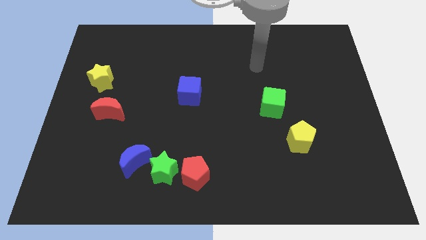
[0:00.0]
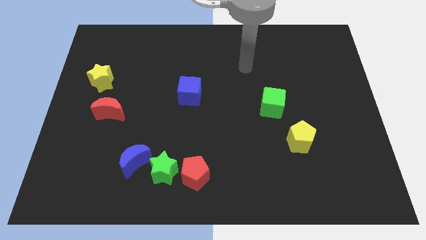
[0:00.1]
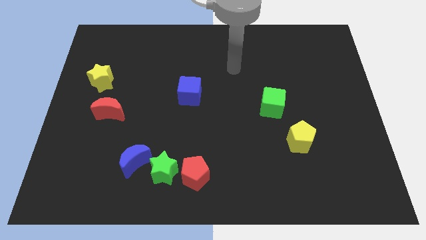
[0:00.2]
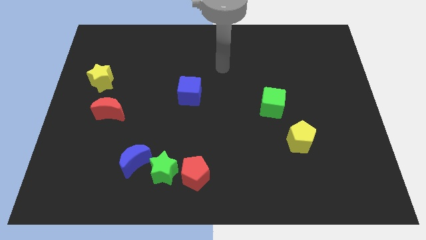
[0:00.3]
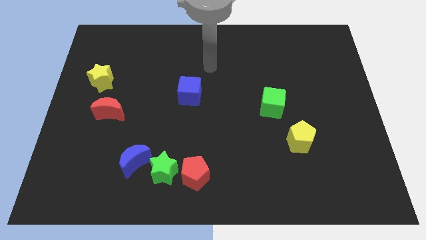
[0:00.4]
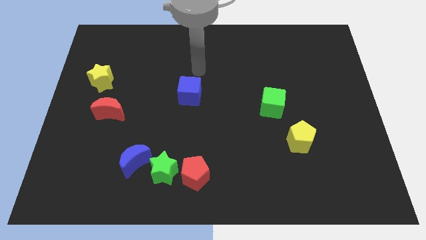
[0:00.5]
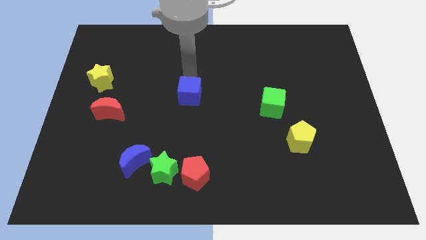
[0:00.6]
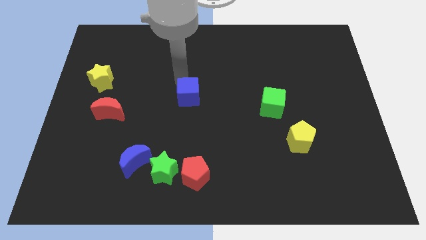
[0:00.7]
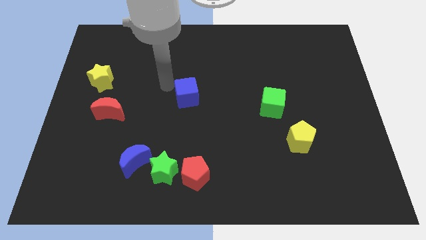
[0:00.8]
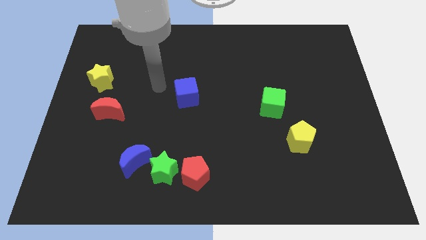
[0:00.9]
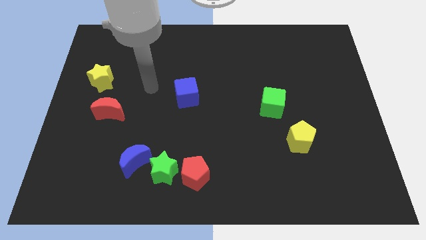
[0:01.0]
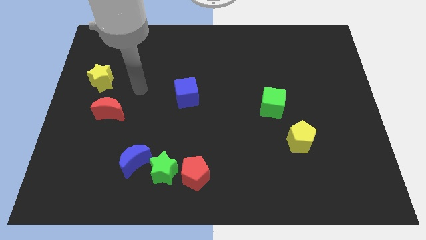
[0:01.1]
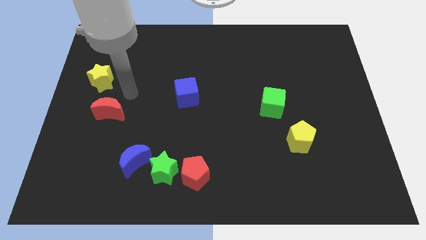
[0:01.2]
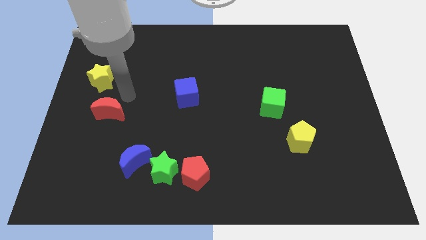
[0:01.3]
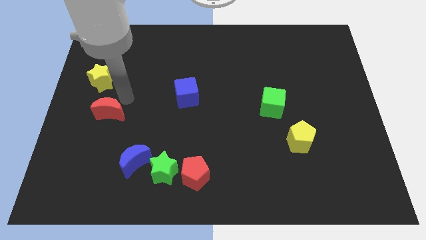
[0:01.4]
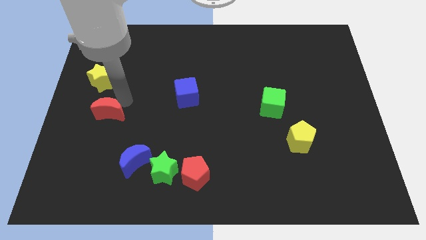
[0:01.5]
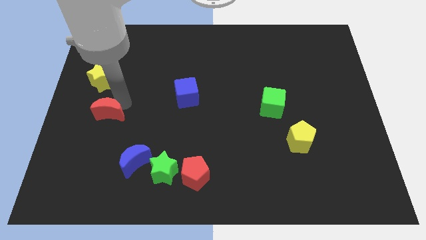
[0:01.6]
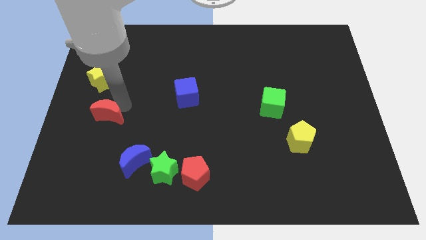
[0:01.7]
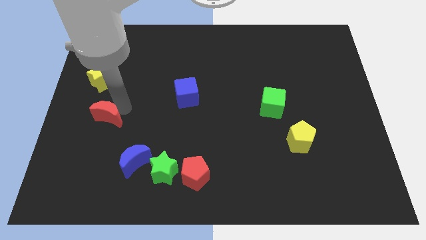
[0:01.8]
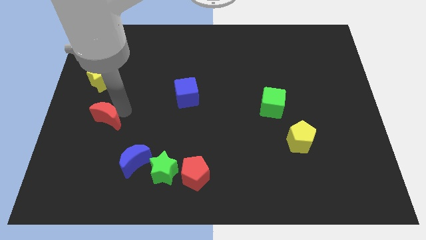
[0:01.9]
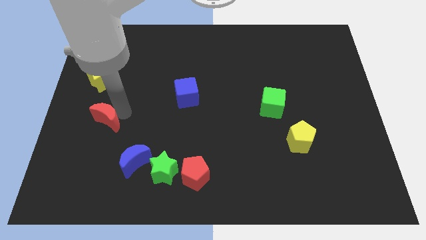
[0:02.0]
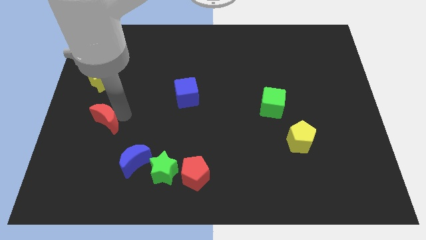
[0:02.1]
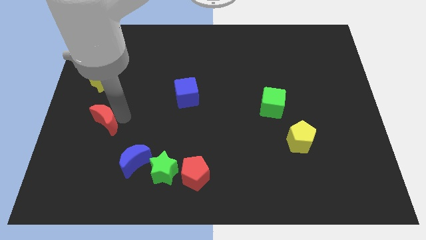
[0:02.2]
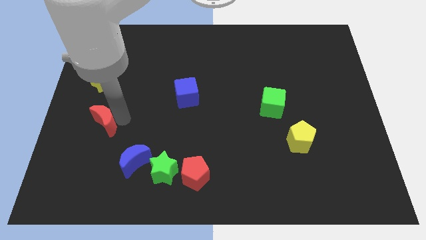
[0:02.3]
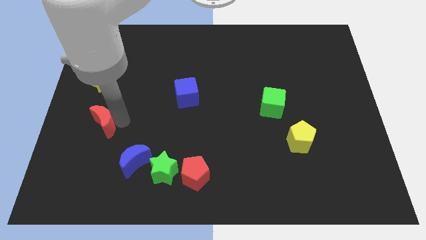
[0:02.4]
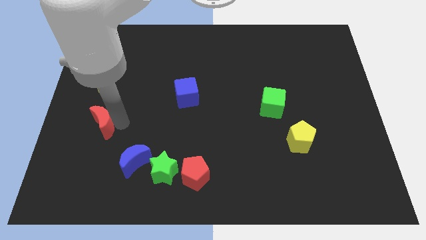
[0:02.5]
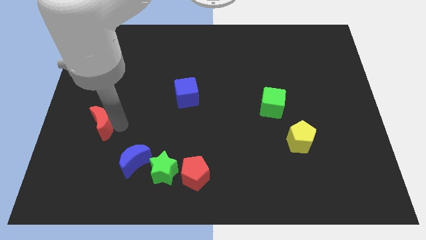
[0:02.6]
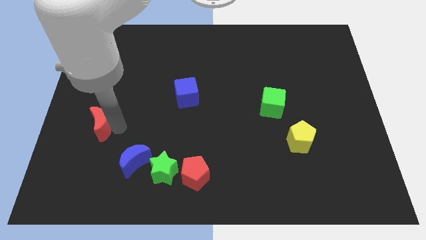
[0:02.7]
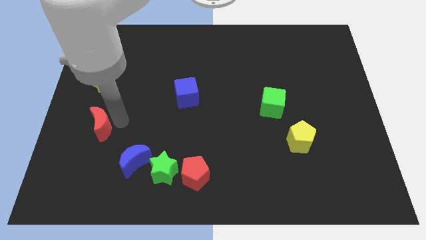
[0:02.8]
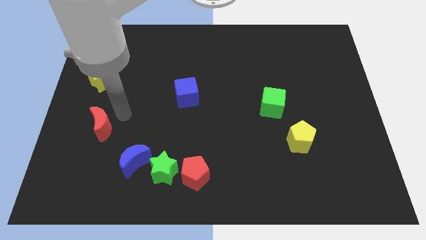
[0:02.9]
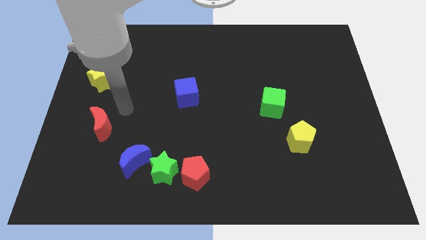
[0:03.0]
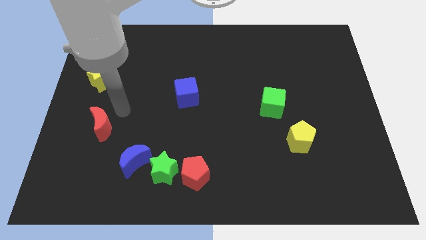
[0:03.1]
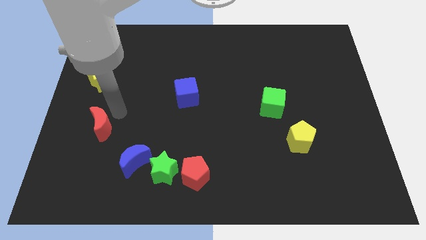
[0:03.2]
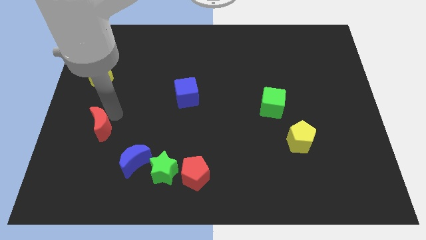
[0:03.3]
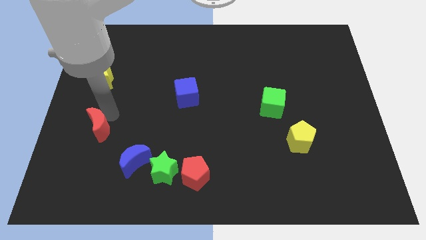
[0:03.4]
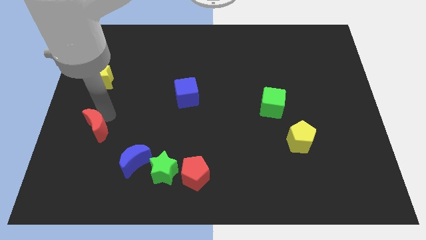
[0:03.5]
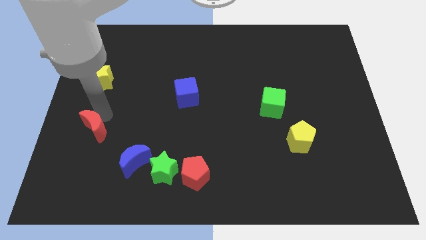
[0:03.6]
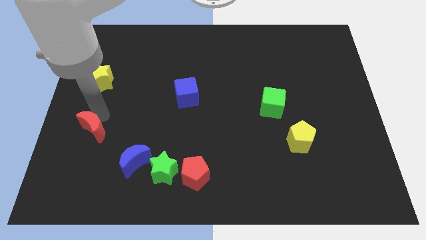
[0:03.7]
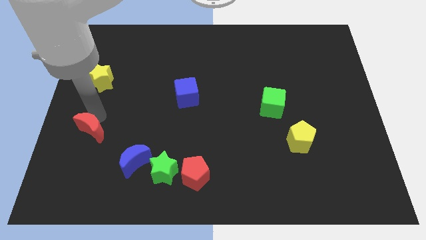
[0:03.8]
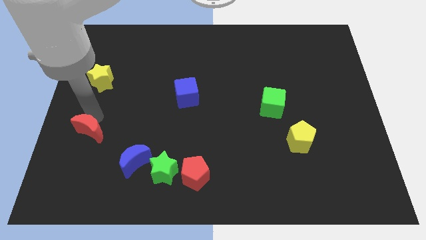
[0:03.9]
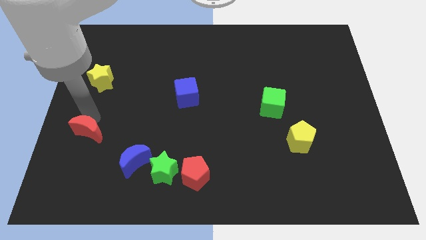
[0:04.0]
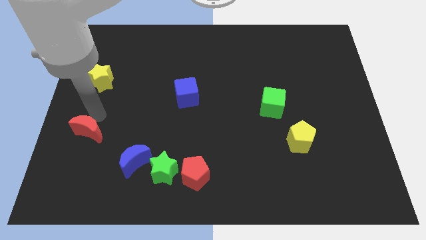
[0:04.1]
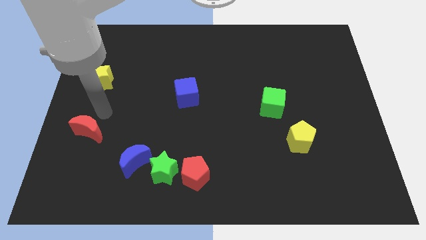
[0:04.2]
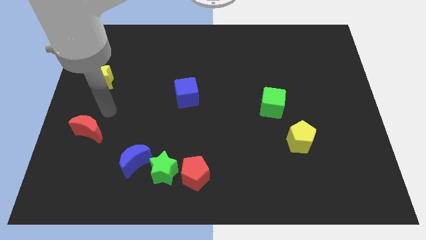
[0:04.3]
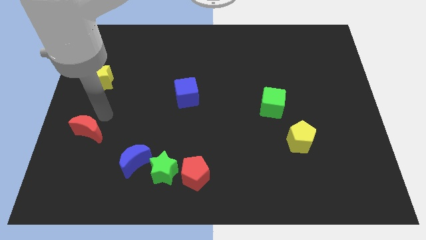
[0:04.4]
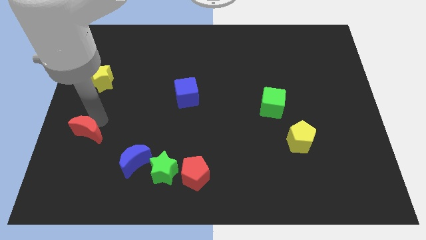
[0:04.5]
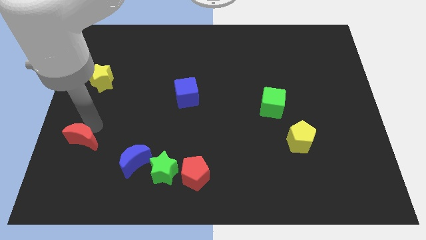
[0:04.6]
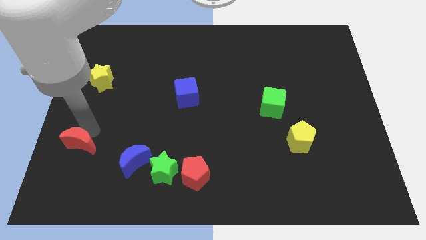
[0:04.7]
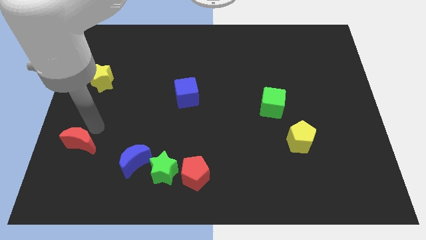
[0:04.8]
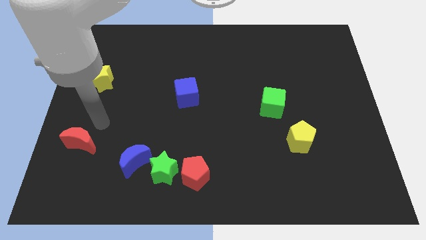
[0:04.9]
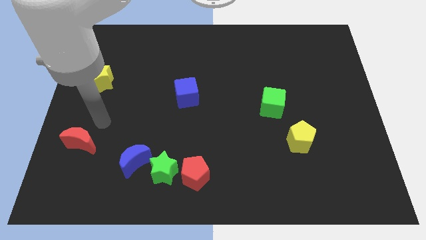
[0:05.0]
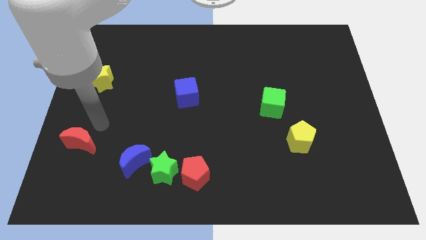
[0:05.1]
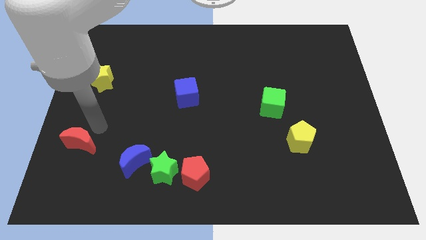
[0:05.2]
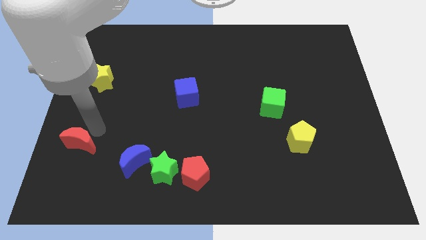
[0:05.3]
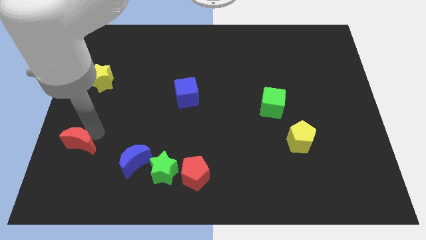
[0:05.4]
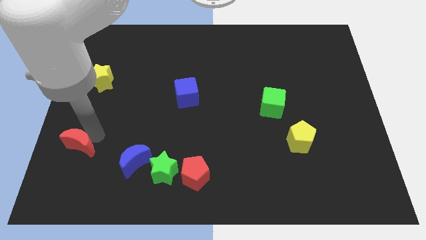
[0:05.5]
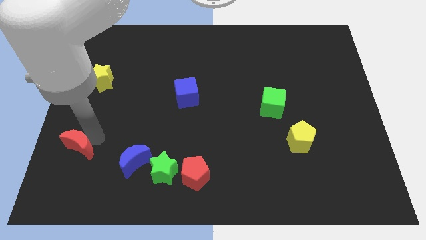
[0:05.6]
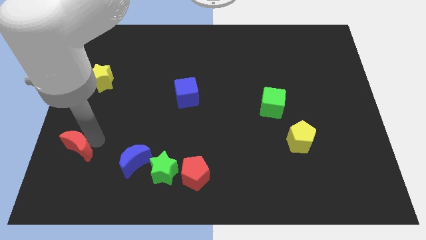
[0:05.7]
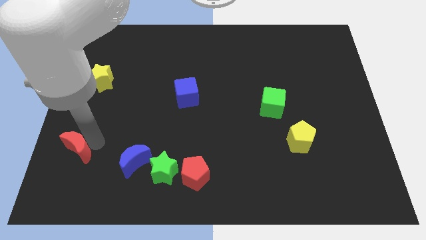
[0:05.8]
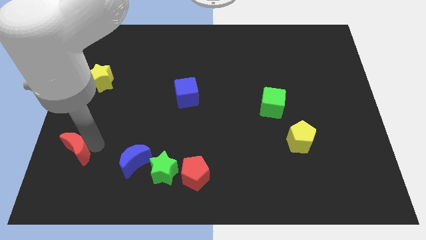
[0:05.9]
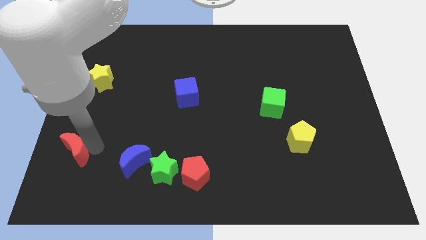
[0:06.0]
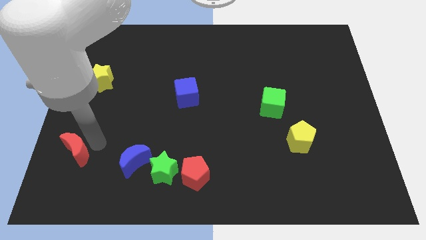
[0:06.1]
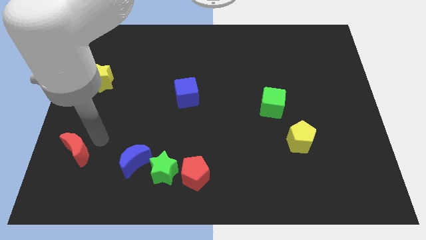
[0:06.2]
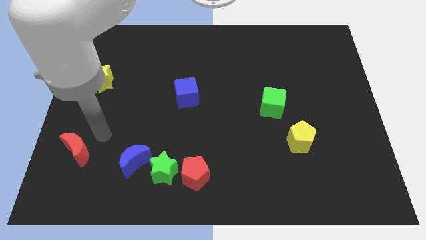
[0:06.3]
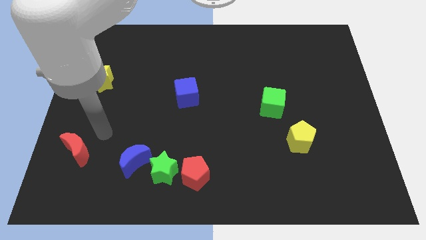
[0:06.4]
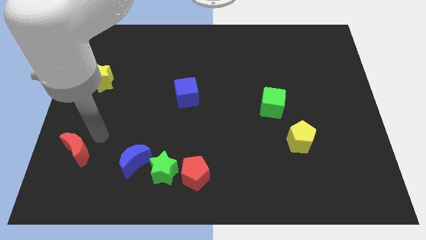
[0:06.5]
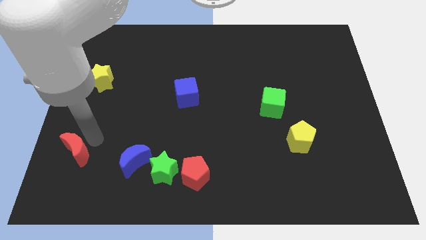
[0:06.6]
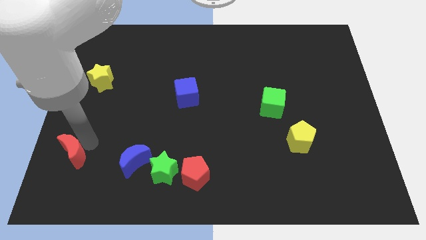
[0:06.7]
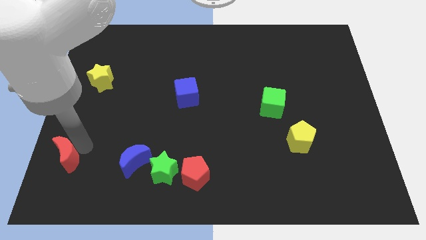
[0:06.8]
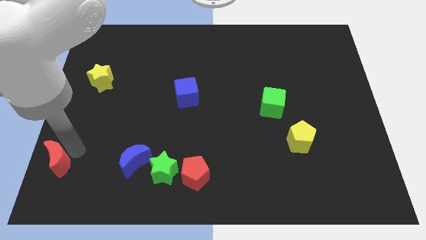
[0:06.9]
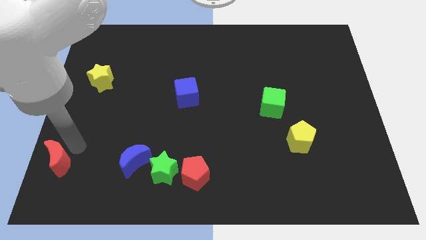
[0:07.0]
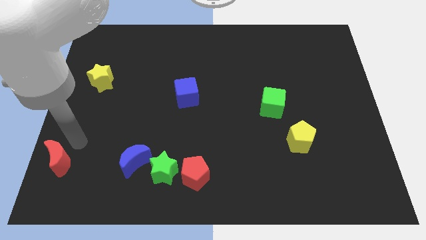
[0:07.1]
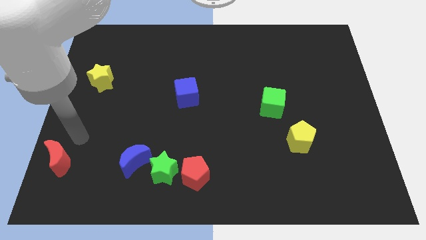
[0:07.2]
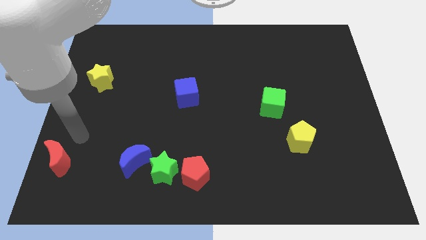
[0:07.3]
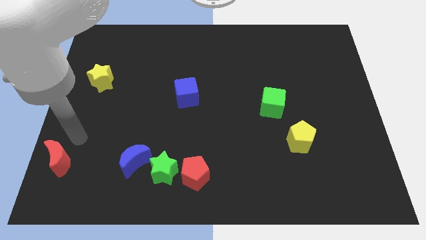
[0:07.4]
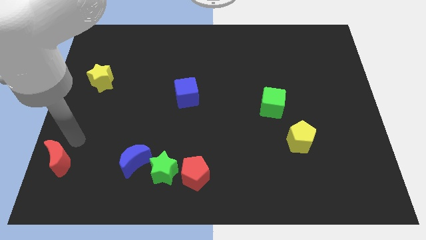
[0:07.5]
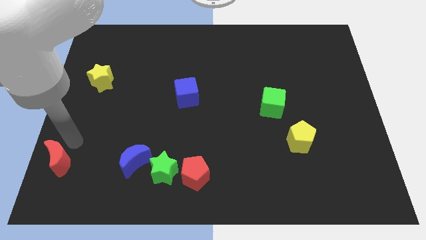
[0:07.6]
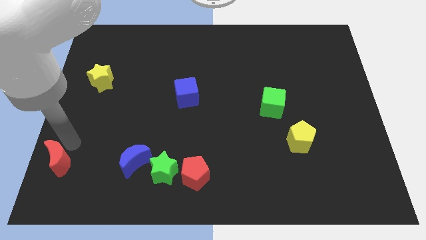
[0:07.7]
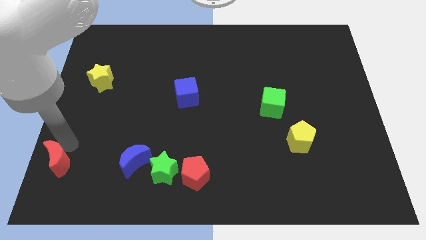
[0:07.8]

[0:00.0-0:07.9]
push the red moon to the bottom left
